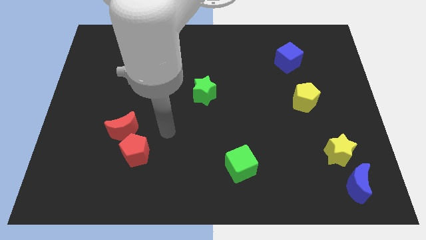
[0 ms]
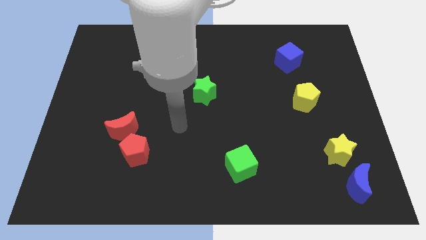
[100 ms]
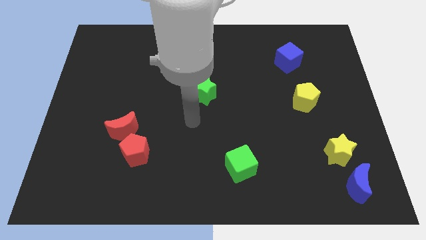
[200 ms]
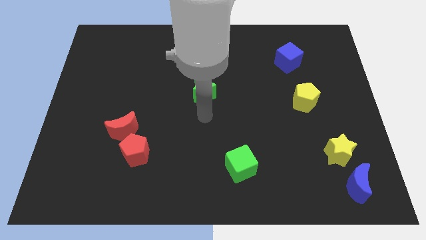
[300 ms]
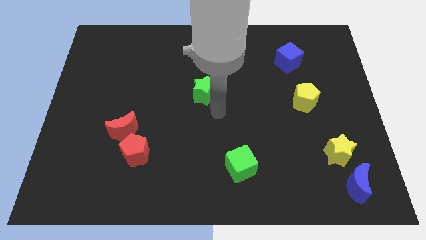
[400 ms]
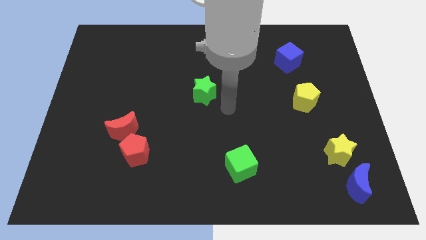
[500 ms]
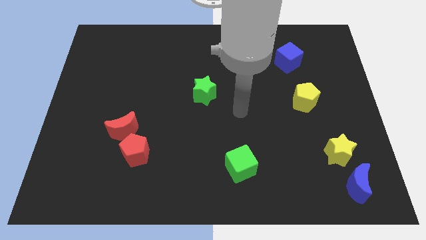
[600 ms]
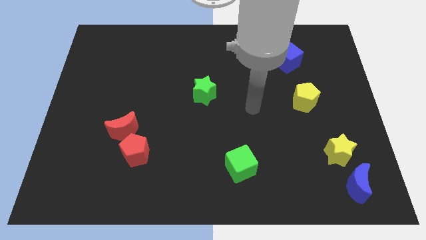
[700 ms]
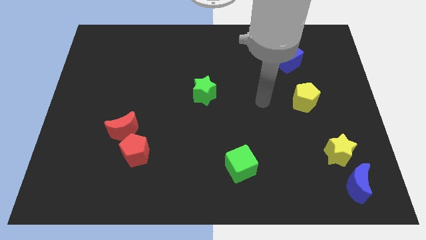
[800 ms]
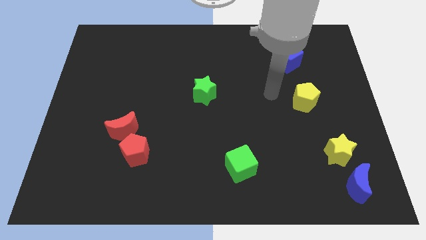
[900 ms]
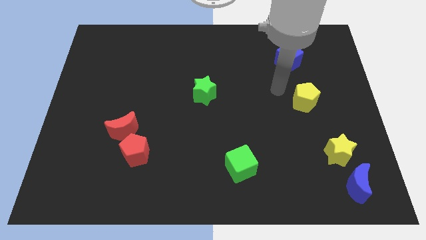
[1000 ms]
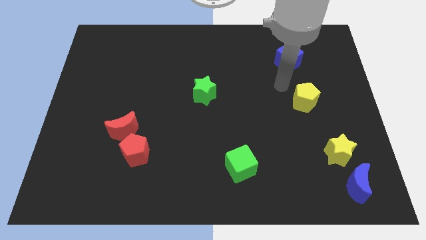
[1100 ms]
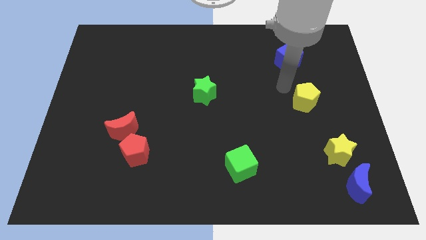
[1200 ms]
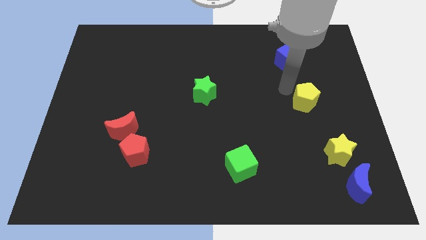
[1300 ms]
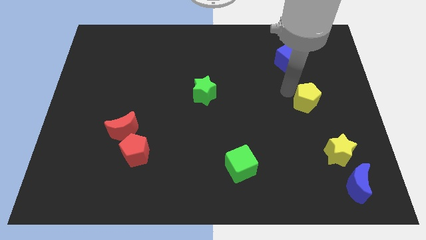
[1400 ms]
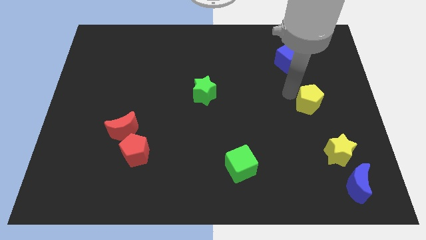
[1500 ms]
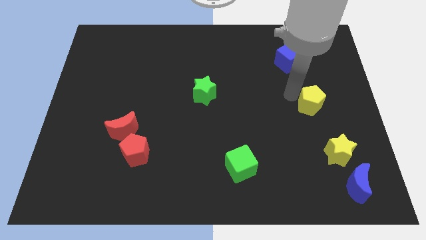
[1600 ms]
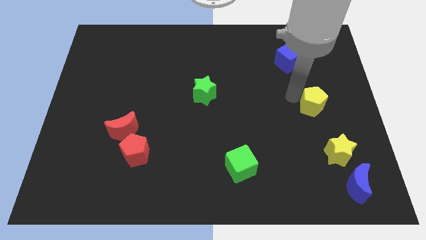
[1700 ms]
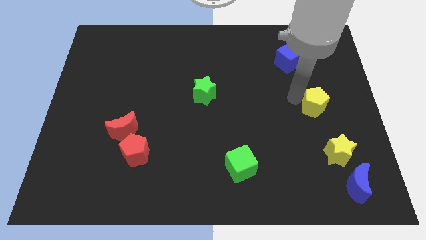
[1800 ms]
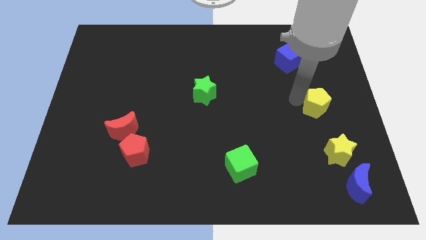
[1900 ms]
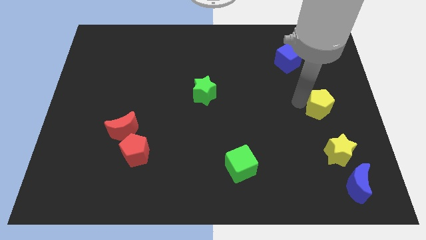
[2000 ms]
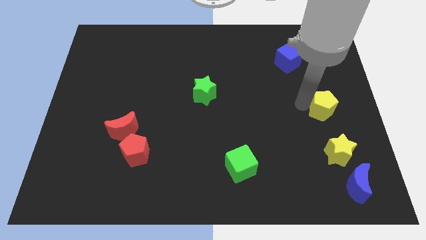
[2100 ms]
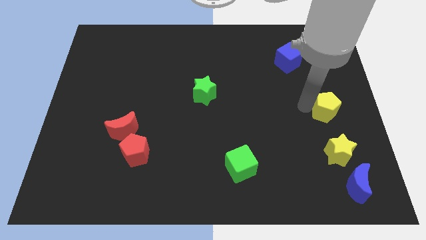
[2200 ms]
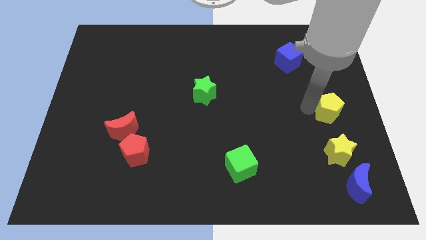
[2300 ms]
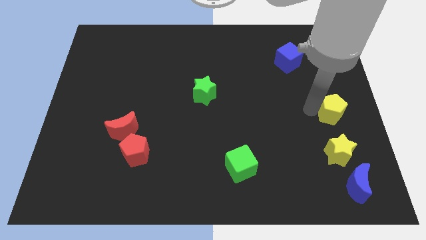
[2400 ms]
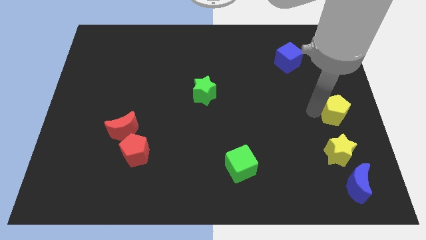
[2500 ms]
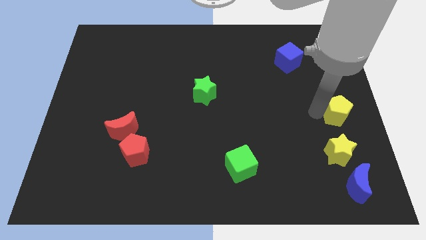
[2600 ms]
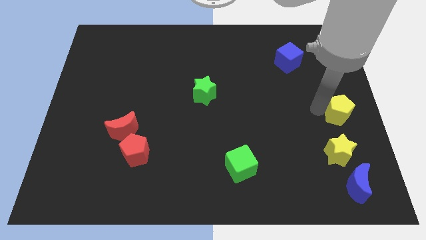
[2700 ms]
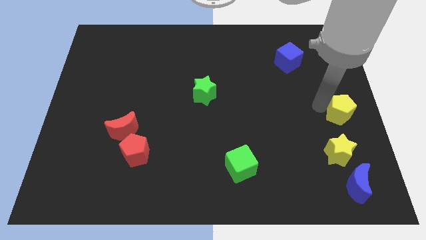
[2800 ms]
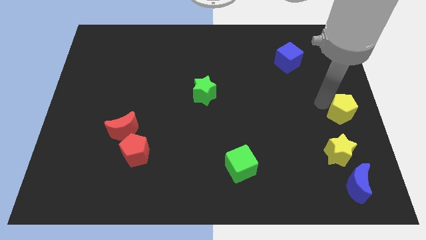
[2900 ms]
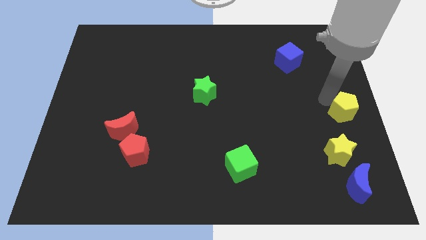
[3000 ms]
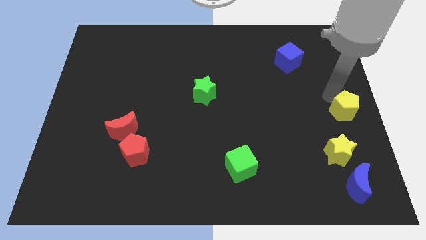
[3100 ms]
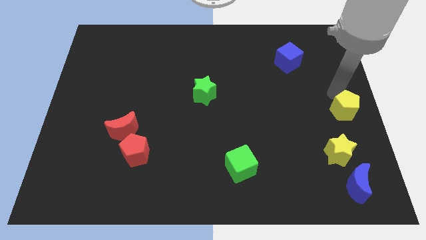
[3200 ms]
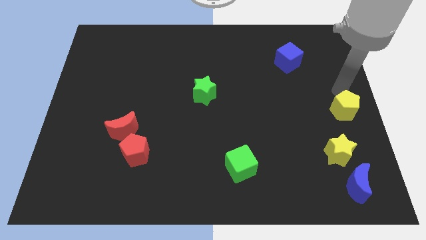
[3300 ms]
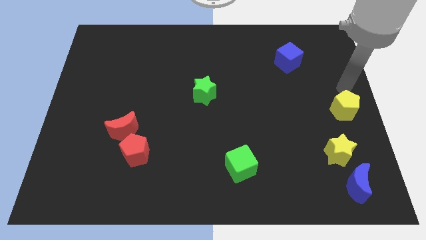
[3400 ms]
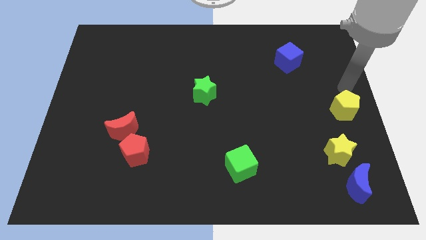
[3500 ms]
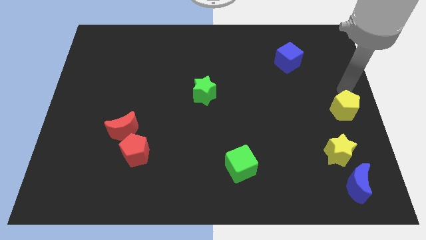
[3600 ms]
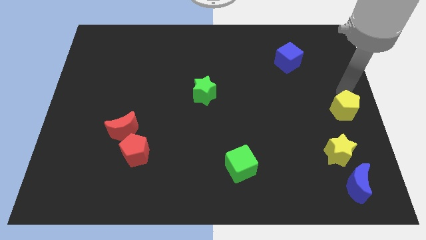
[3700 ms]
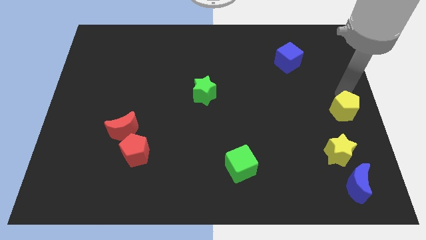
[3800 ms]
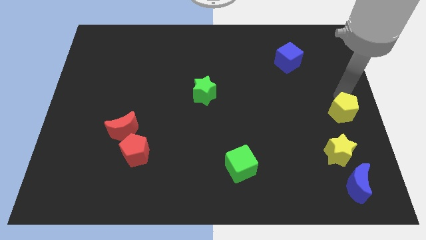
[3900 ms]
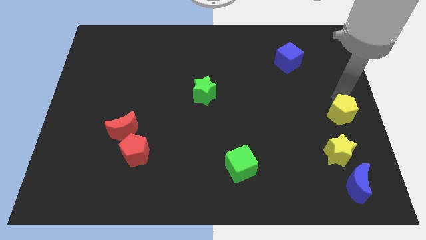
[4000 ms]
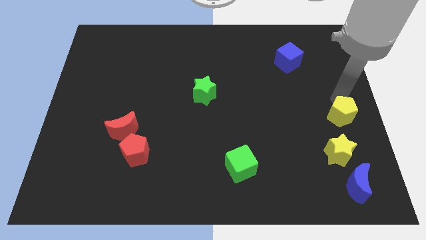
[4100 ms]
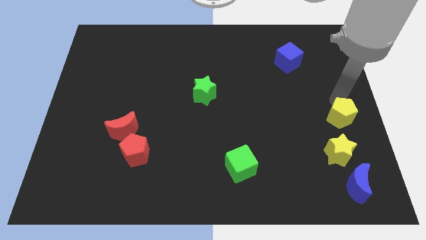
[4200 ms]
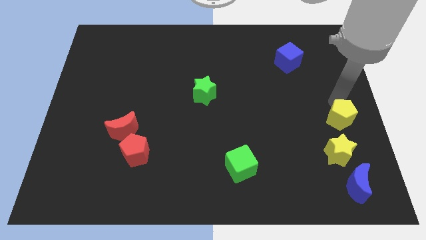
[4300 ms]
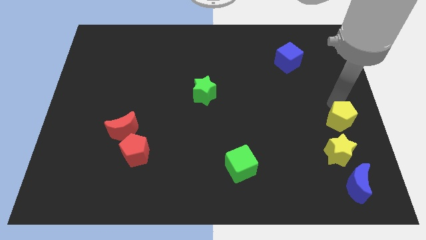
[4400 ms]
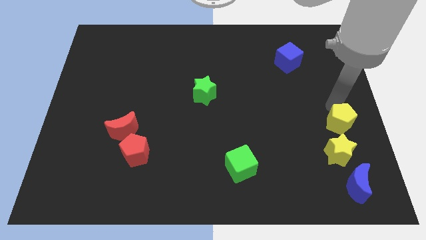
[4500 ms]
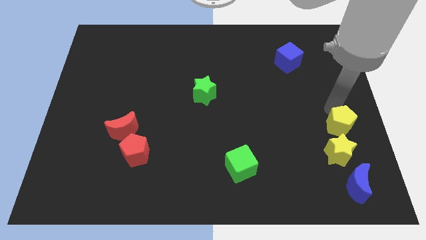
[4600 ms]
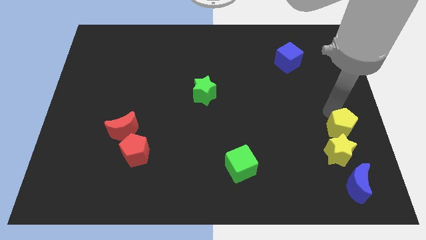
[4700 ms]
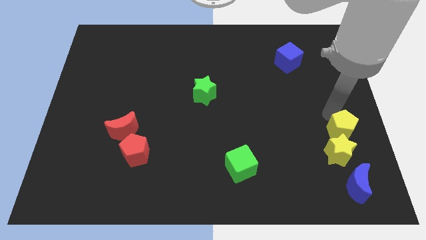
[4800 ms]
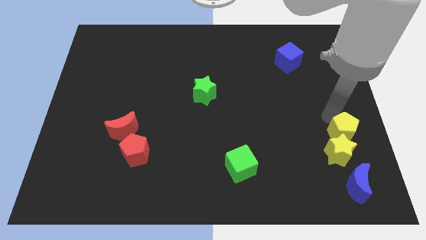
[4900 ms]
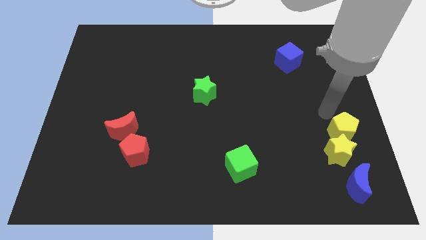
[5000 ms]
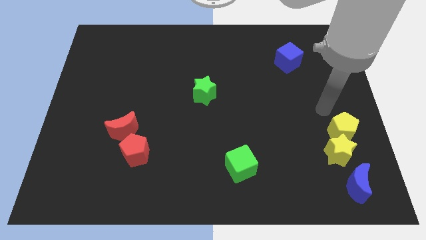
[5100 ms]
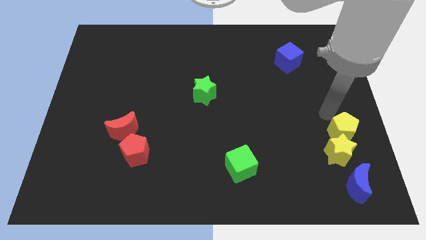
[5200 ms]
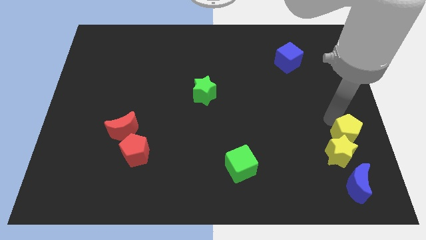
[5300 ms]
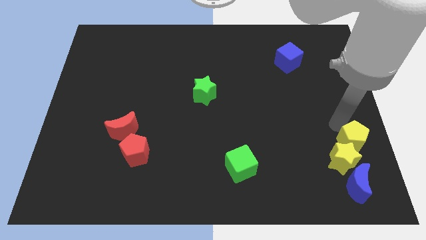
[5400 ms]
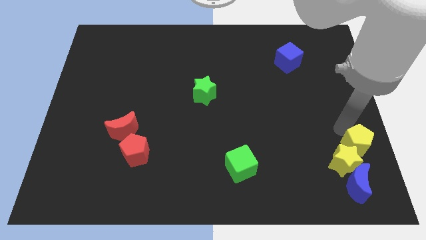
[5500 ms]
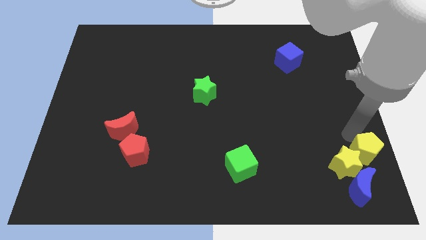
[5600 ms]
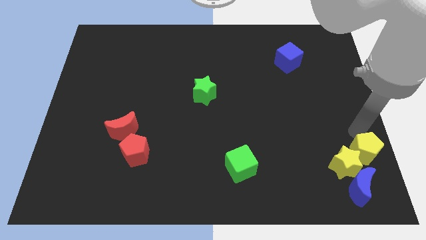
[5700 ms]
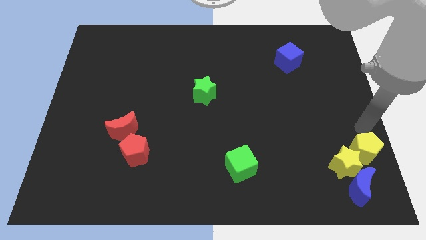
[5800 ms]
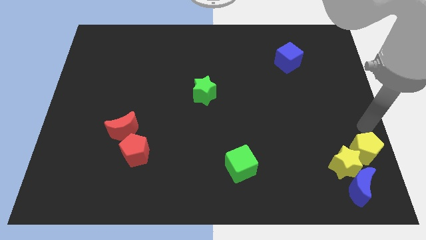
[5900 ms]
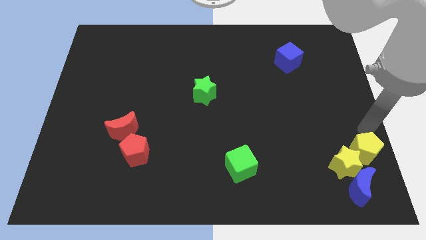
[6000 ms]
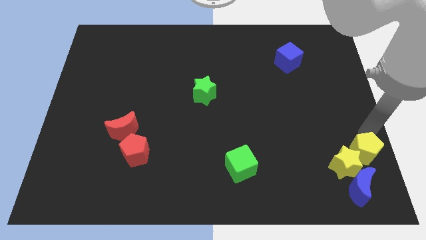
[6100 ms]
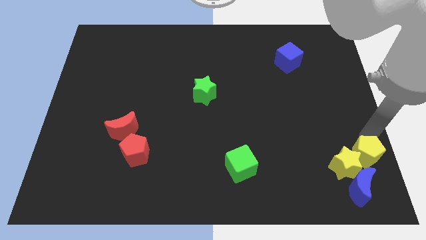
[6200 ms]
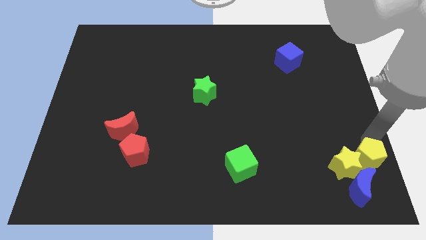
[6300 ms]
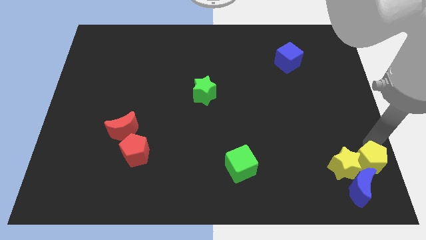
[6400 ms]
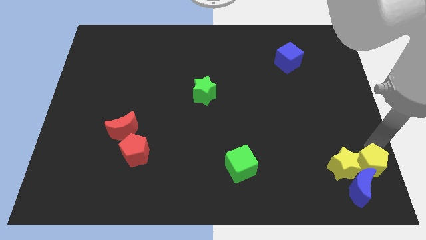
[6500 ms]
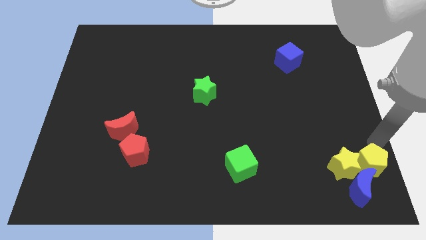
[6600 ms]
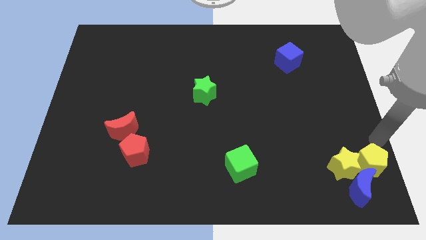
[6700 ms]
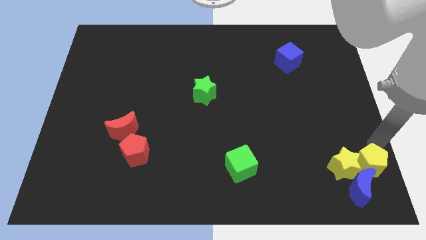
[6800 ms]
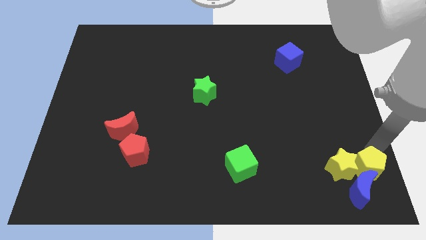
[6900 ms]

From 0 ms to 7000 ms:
move the yellow pentagon next to the blue moon

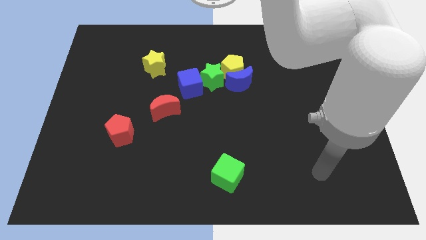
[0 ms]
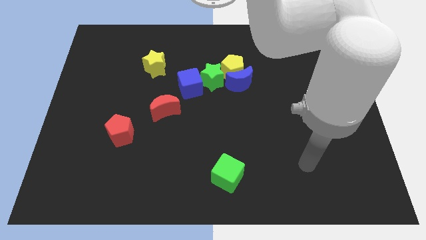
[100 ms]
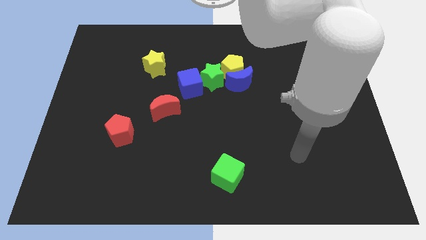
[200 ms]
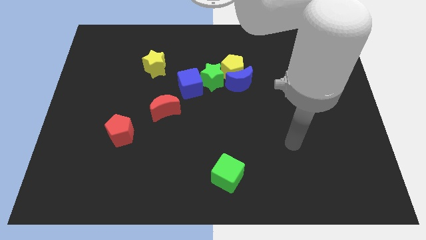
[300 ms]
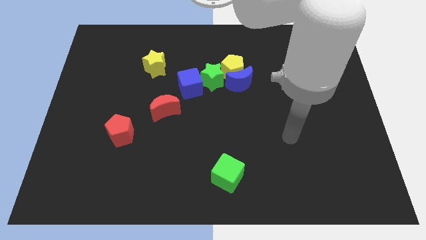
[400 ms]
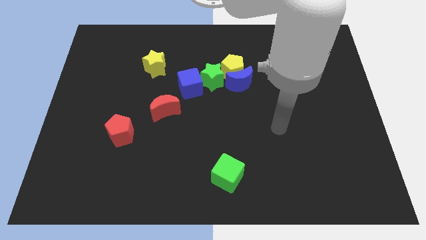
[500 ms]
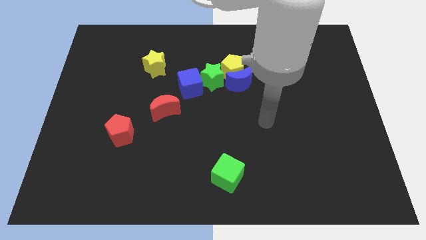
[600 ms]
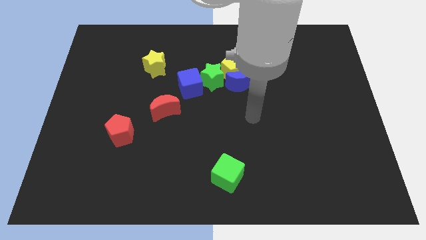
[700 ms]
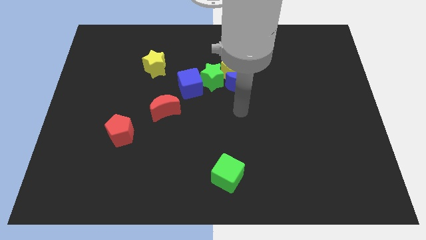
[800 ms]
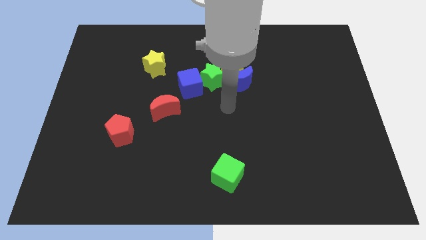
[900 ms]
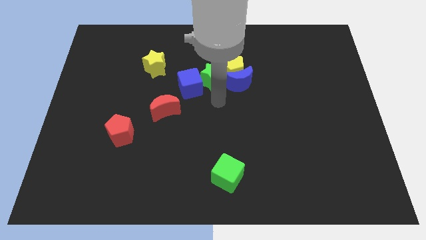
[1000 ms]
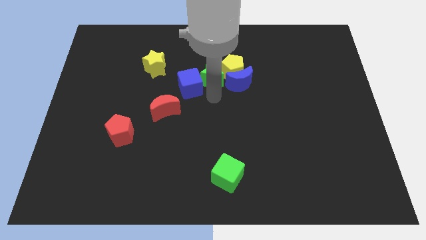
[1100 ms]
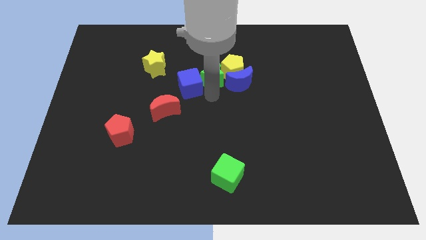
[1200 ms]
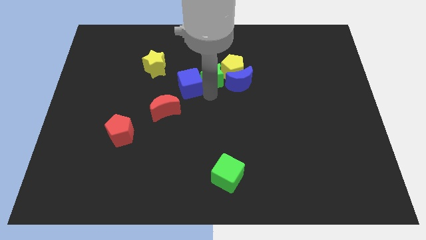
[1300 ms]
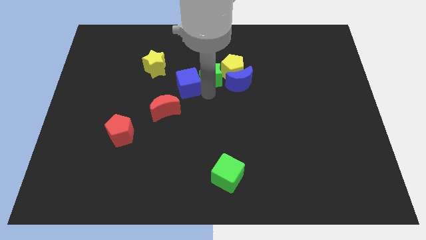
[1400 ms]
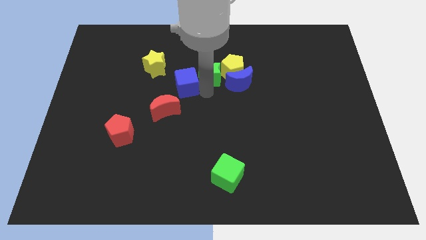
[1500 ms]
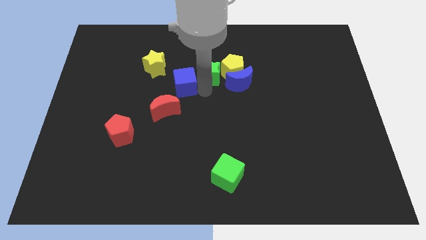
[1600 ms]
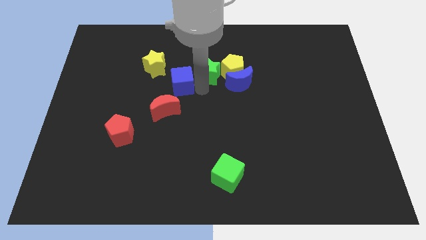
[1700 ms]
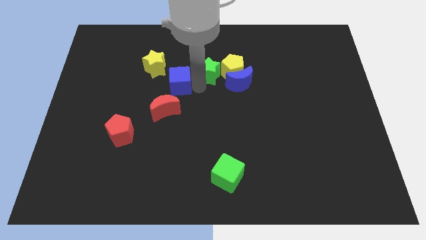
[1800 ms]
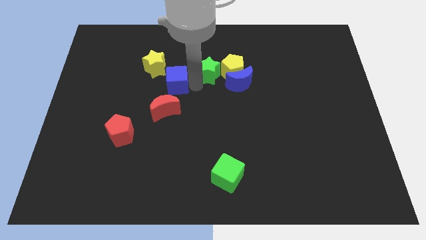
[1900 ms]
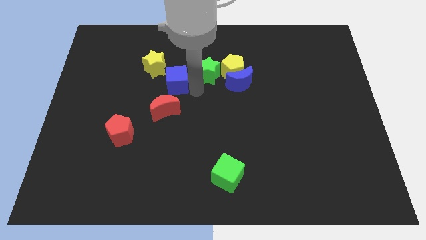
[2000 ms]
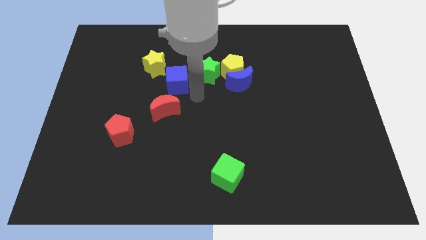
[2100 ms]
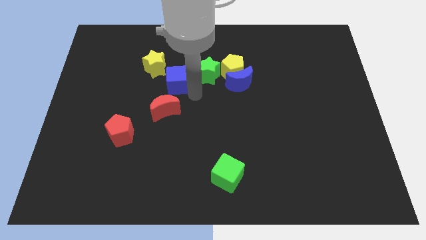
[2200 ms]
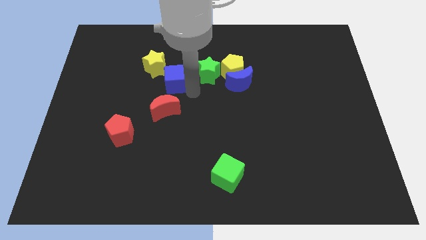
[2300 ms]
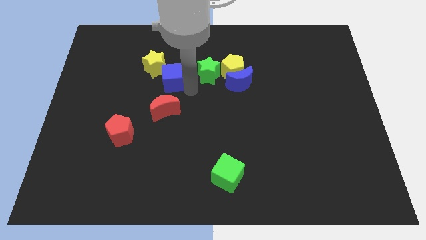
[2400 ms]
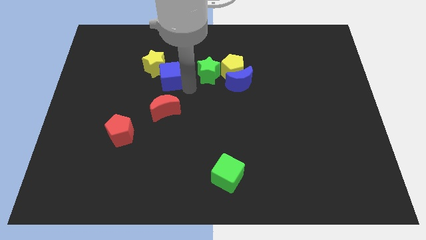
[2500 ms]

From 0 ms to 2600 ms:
push the blue cube to the yellow star
